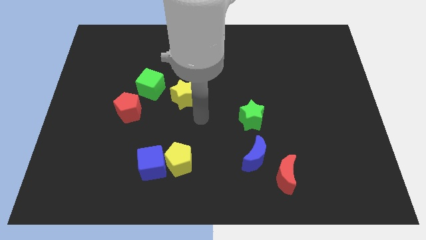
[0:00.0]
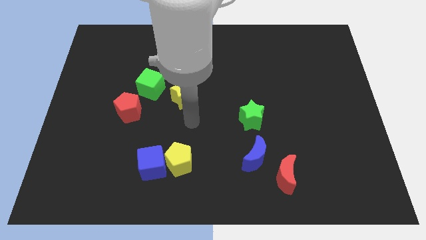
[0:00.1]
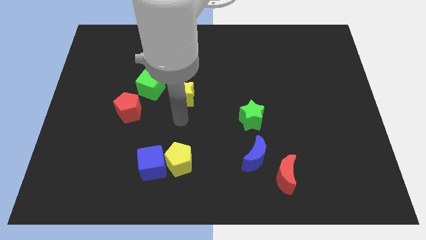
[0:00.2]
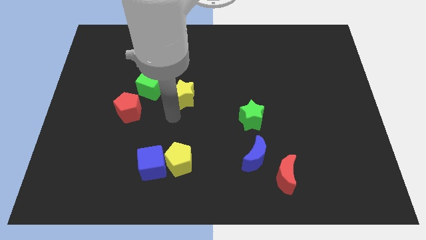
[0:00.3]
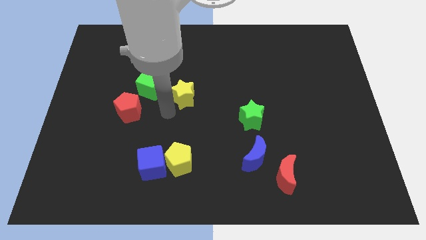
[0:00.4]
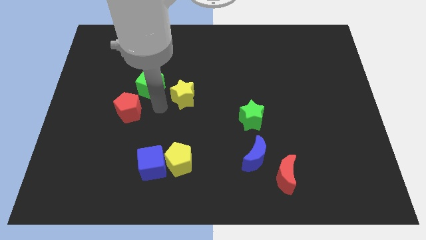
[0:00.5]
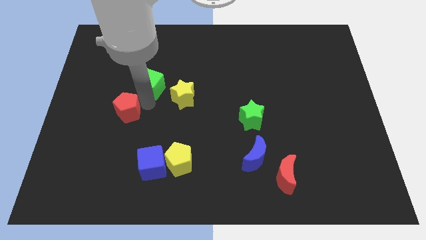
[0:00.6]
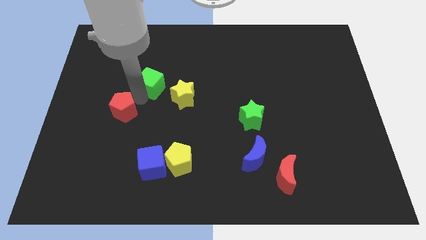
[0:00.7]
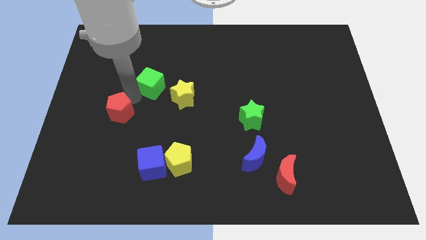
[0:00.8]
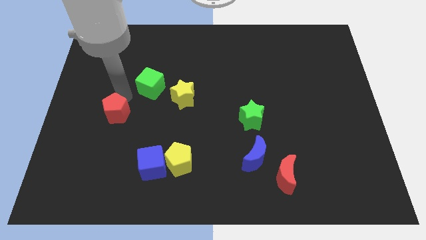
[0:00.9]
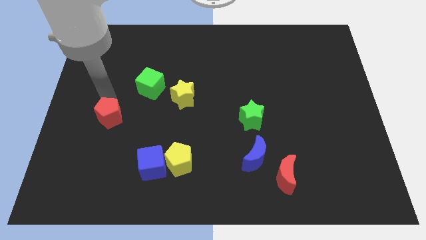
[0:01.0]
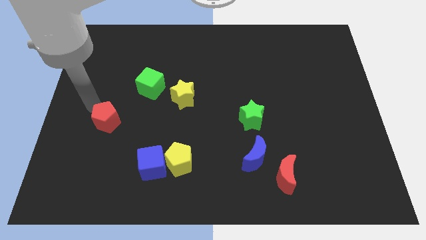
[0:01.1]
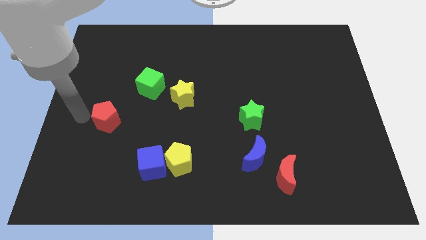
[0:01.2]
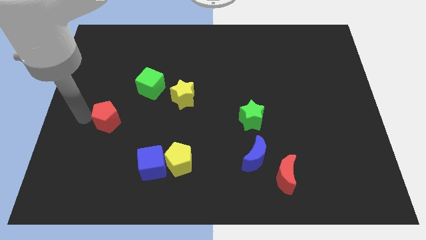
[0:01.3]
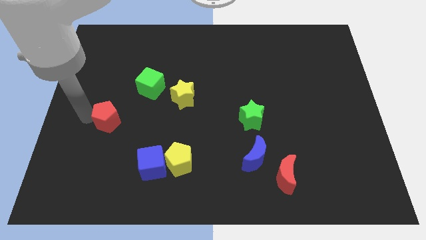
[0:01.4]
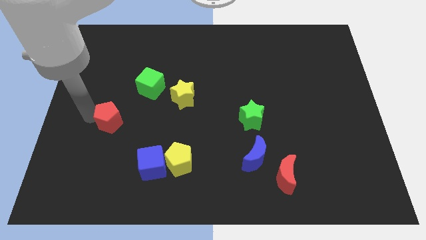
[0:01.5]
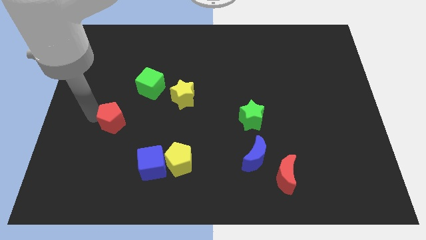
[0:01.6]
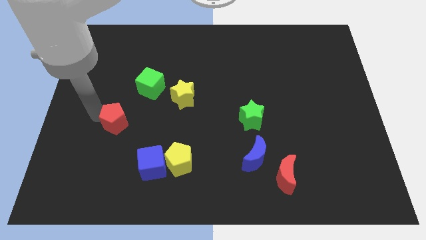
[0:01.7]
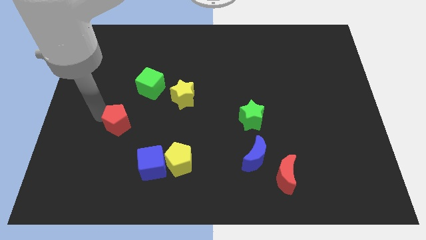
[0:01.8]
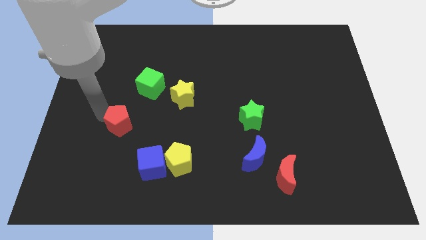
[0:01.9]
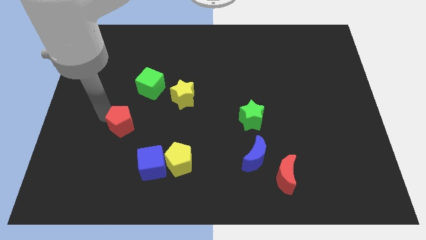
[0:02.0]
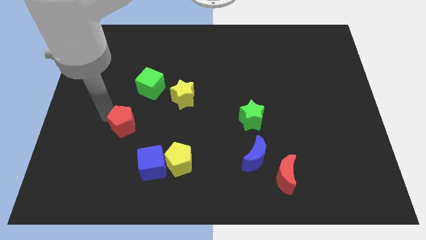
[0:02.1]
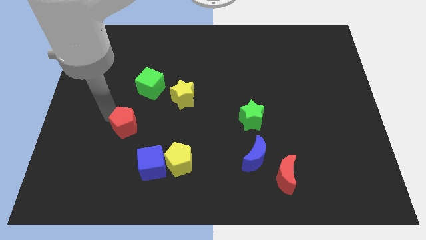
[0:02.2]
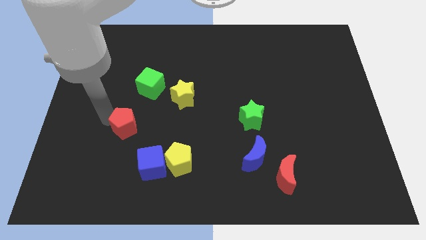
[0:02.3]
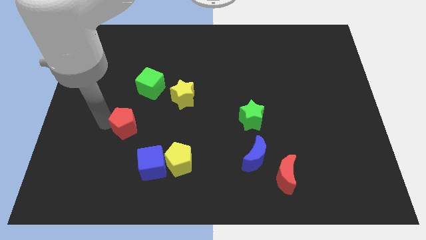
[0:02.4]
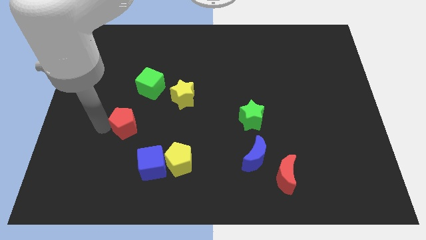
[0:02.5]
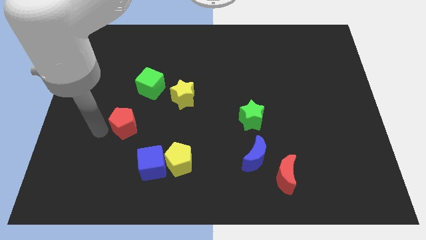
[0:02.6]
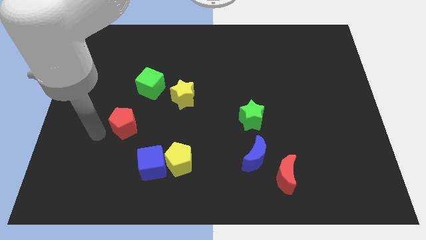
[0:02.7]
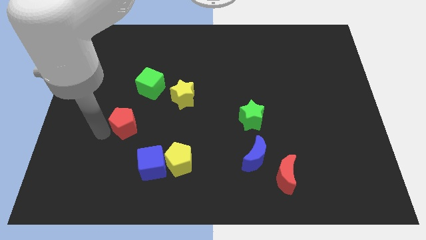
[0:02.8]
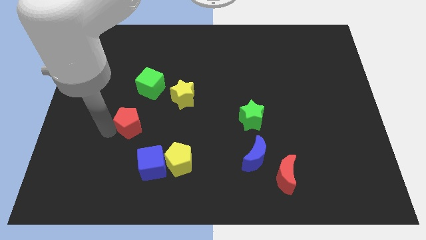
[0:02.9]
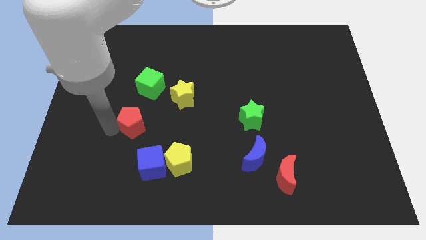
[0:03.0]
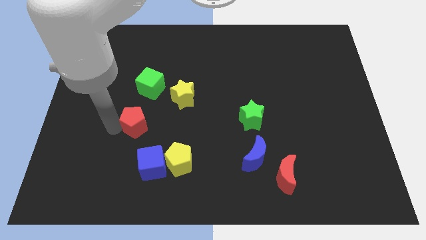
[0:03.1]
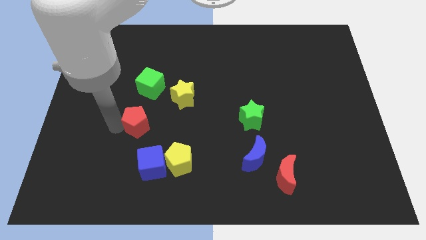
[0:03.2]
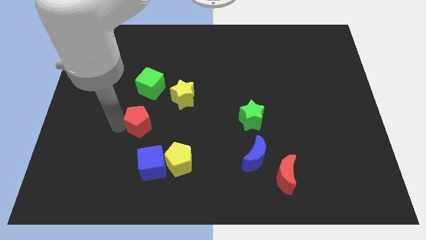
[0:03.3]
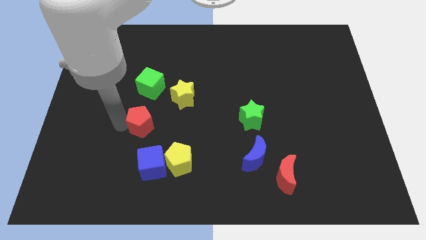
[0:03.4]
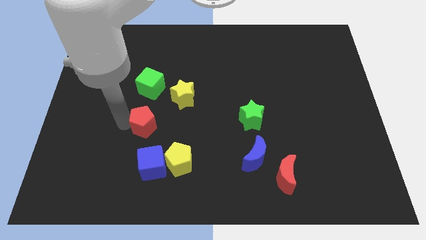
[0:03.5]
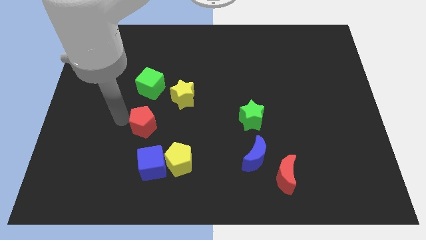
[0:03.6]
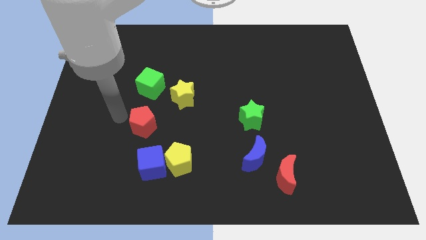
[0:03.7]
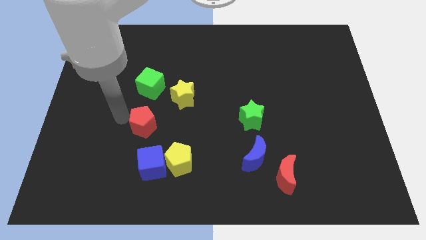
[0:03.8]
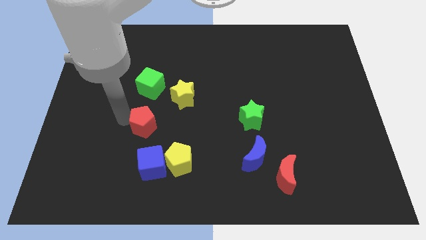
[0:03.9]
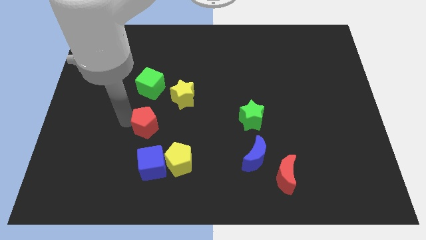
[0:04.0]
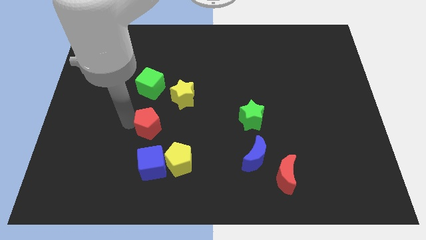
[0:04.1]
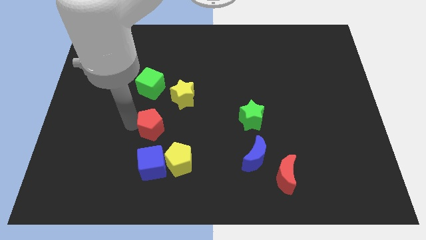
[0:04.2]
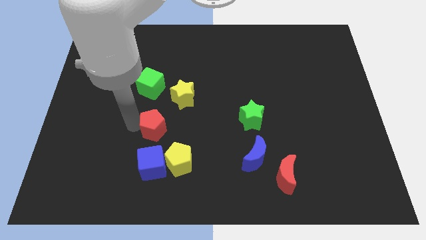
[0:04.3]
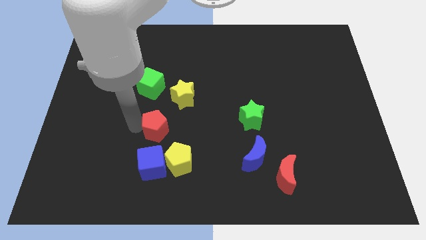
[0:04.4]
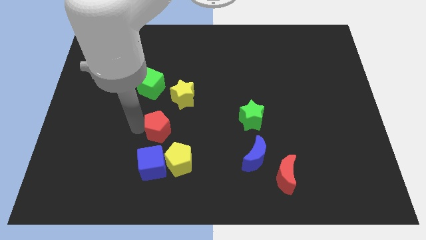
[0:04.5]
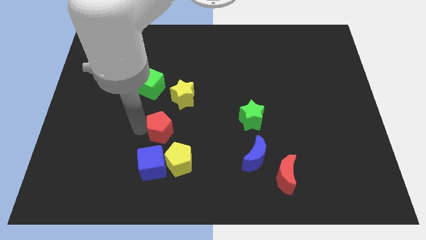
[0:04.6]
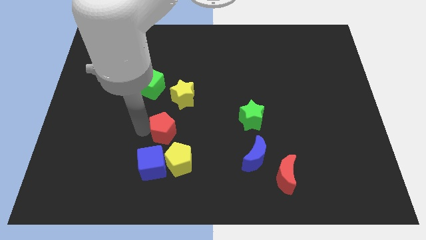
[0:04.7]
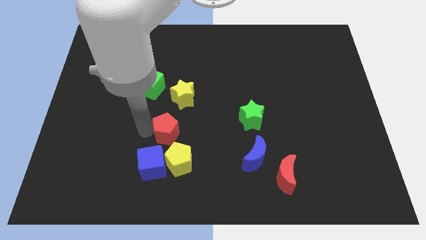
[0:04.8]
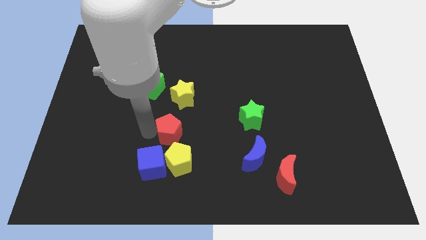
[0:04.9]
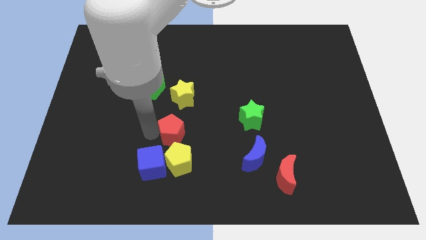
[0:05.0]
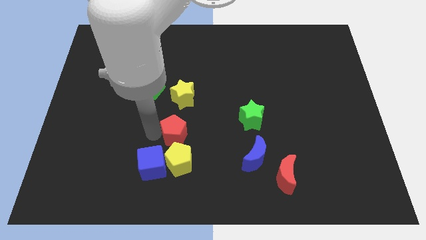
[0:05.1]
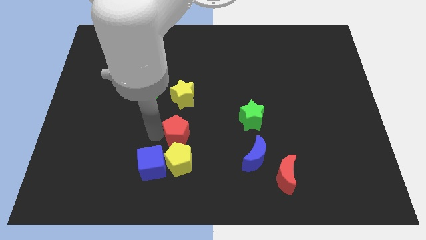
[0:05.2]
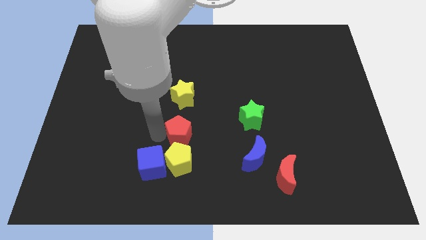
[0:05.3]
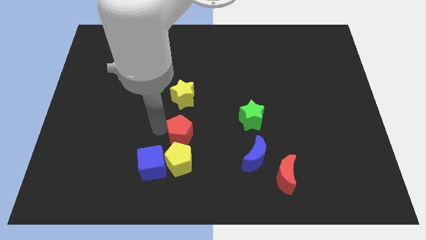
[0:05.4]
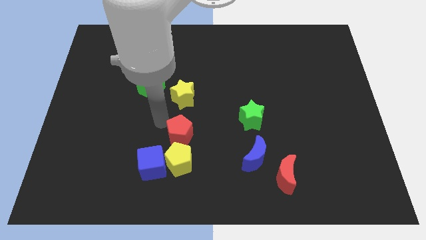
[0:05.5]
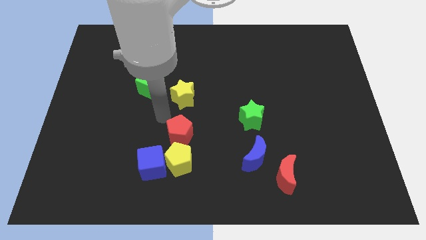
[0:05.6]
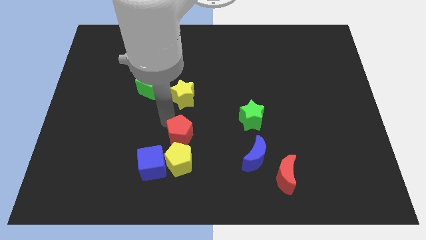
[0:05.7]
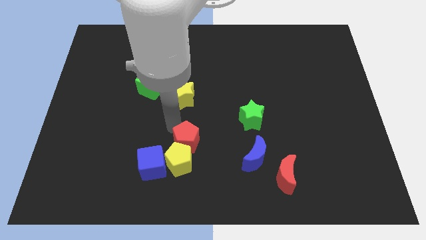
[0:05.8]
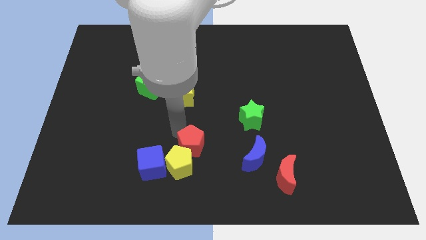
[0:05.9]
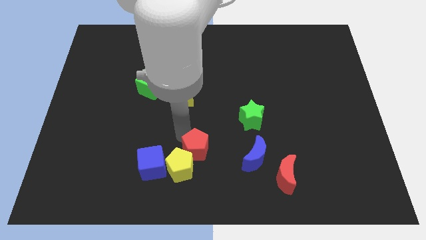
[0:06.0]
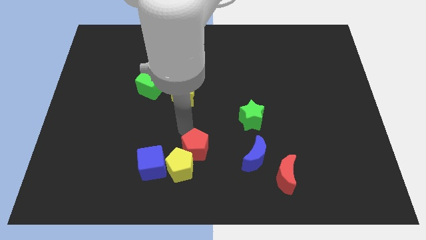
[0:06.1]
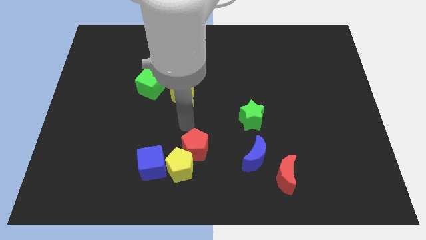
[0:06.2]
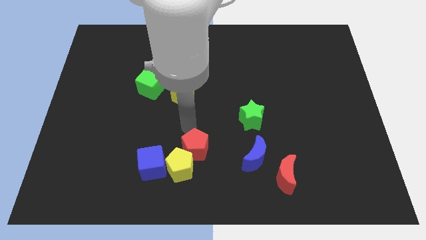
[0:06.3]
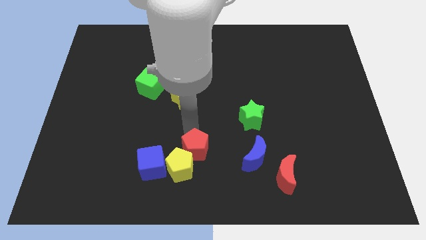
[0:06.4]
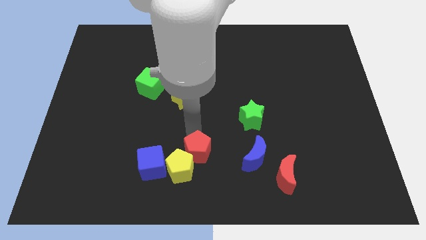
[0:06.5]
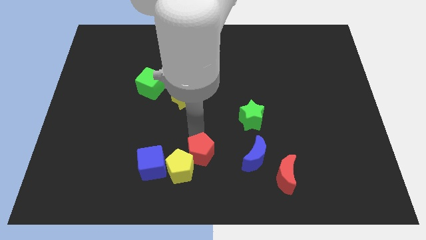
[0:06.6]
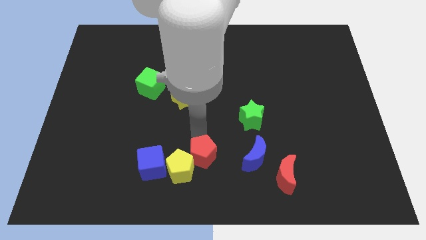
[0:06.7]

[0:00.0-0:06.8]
put the red pentagon to the bottom side
